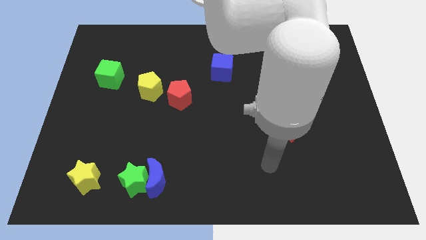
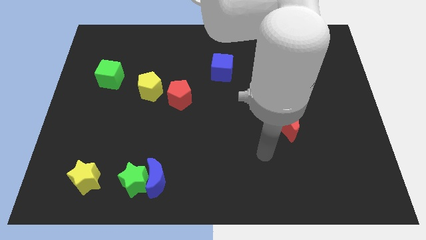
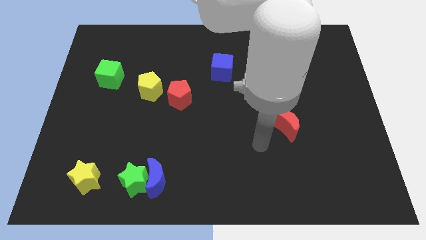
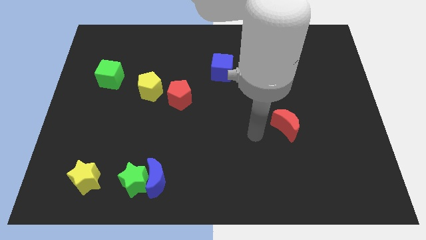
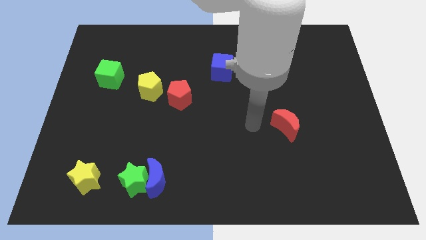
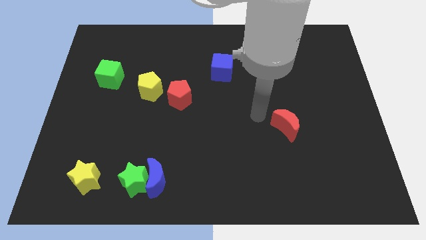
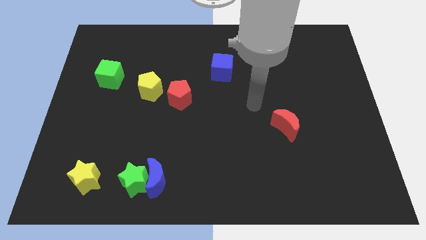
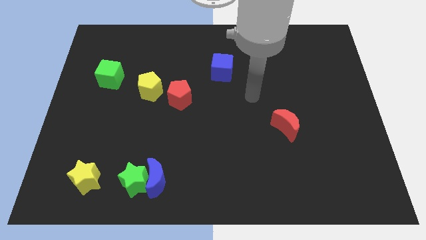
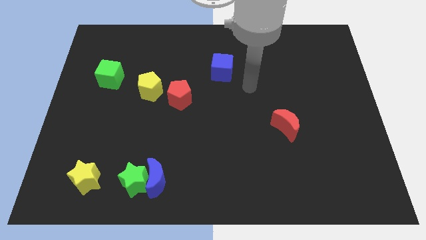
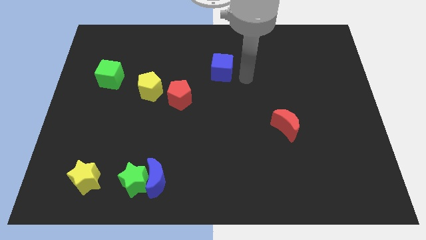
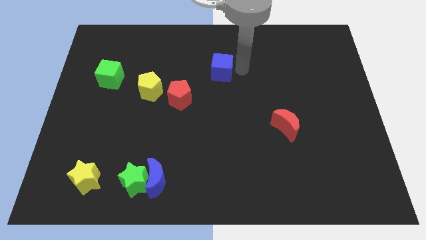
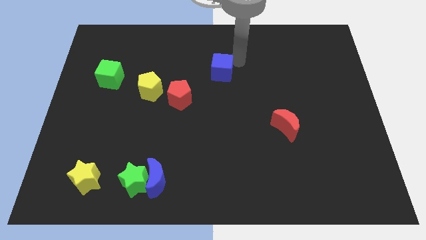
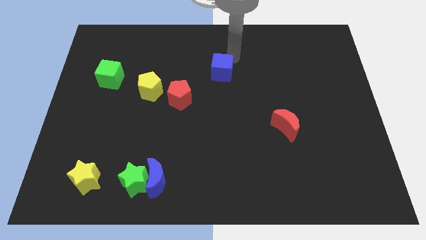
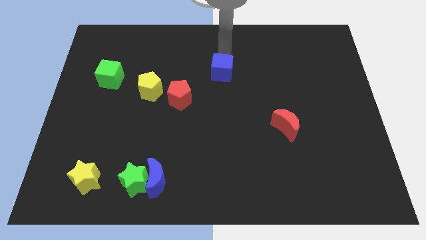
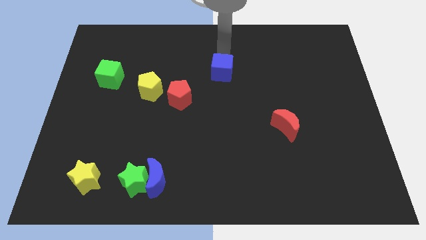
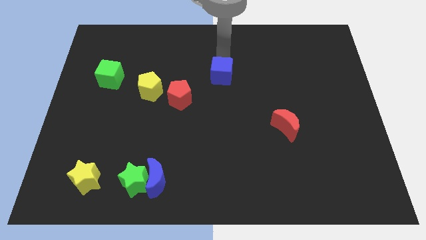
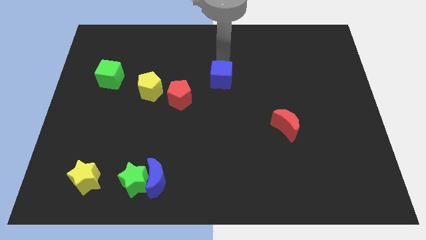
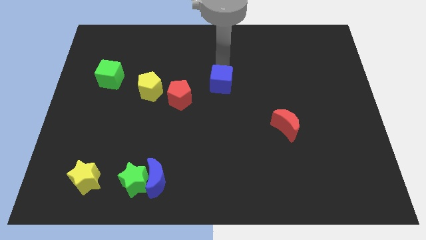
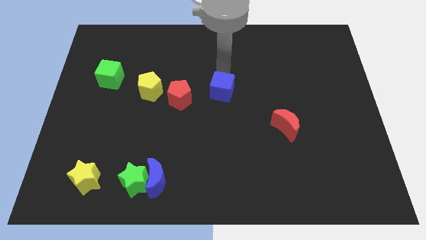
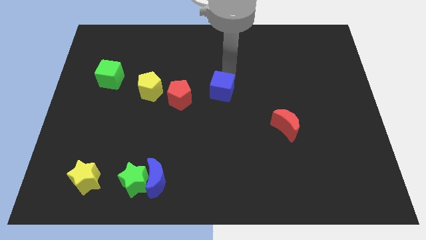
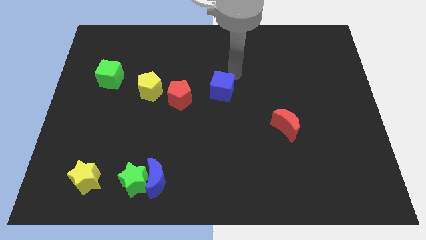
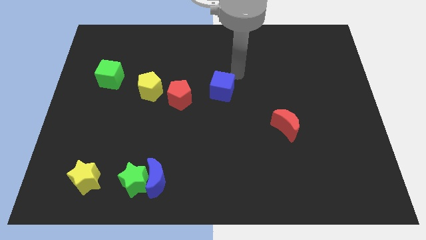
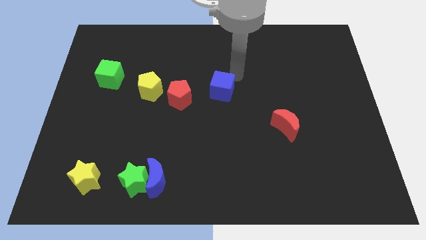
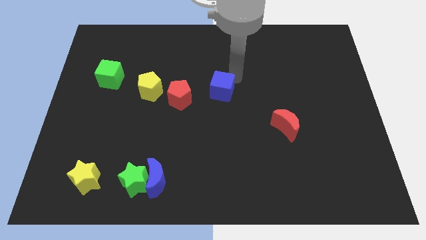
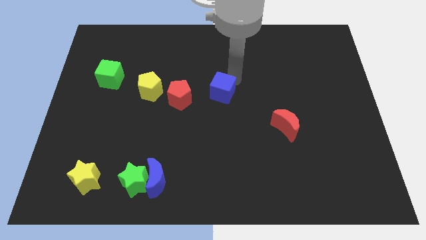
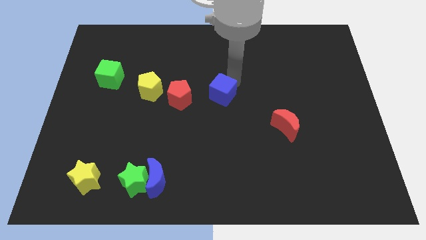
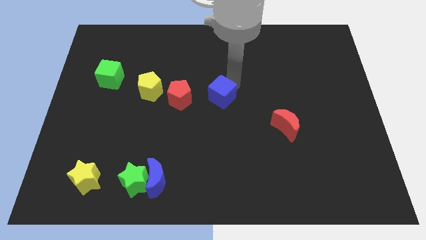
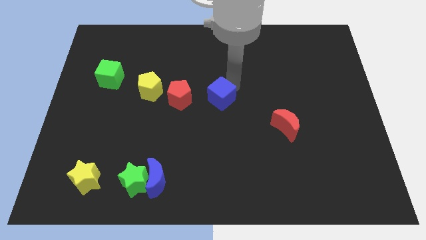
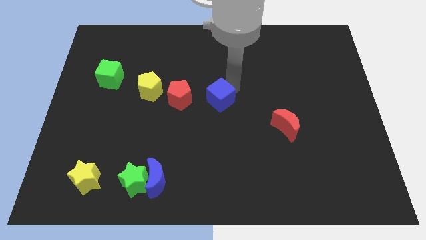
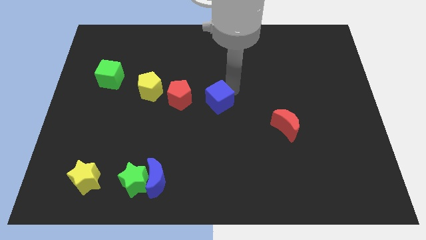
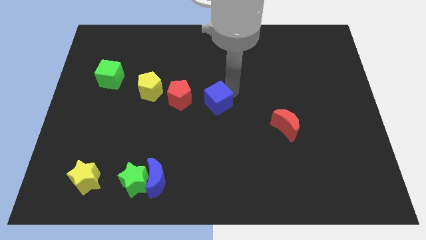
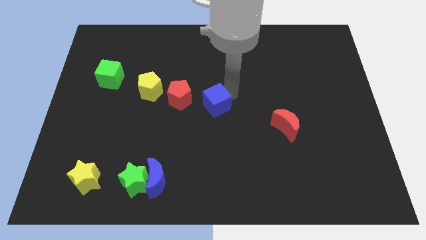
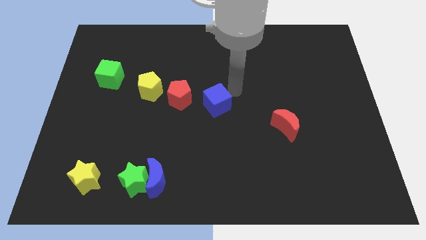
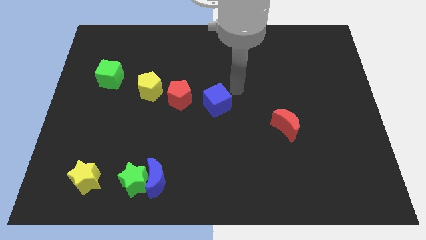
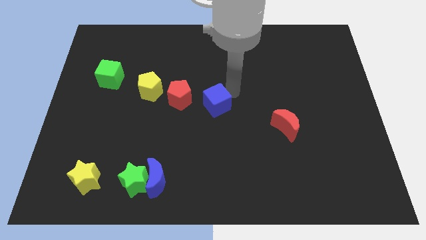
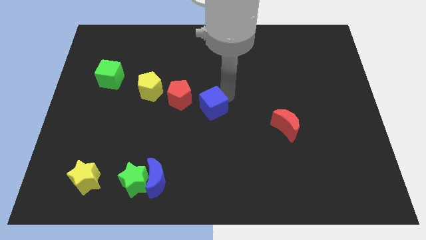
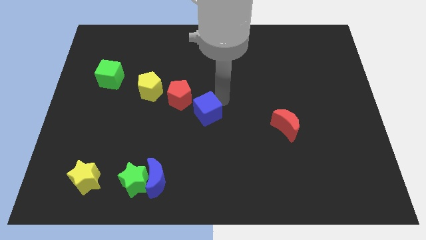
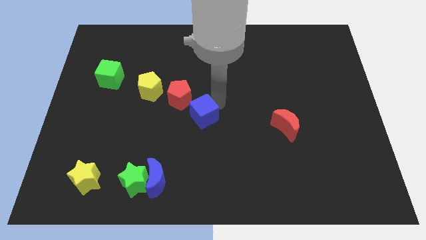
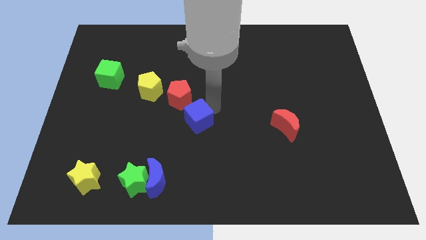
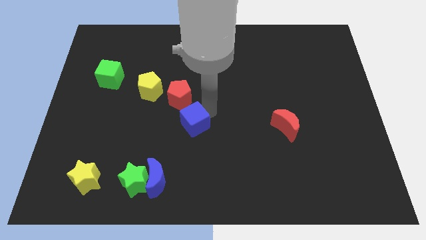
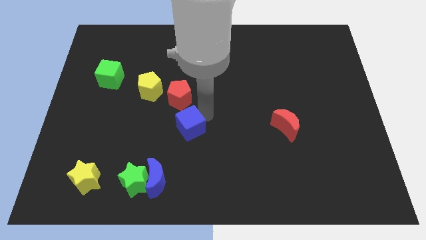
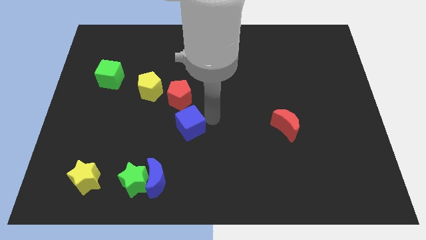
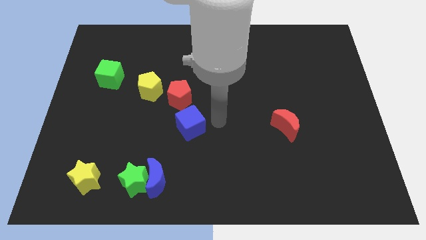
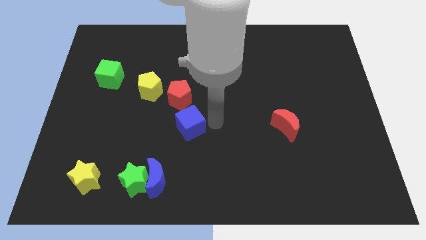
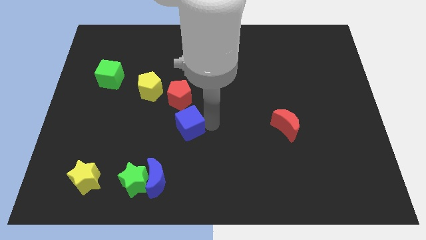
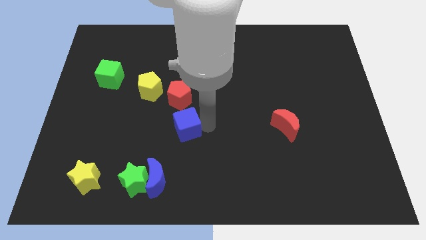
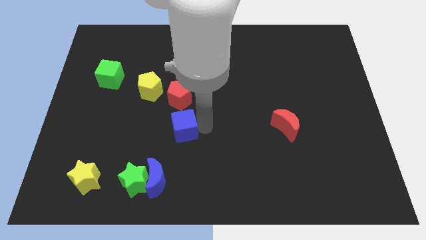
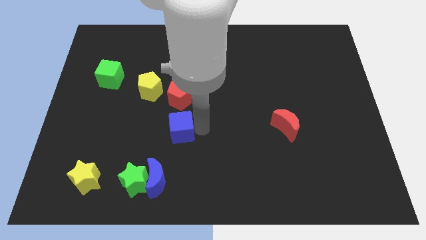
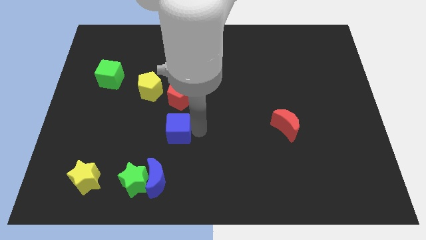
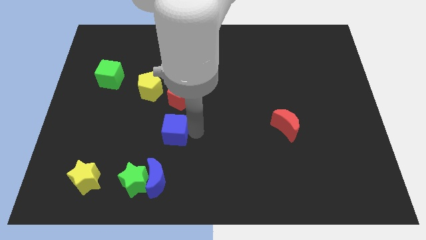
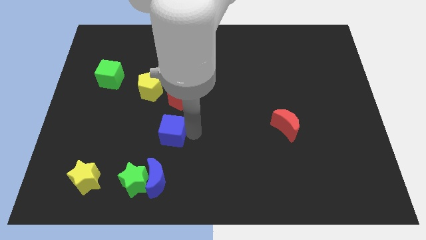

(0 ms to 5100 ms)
move the blue cube diagonally down and to the left

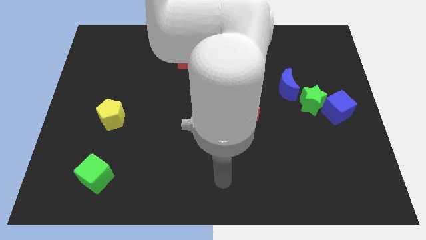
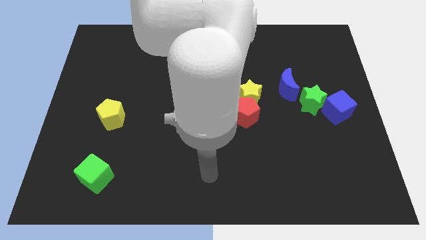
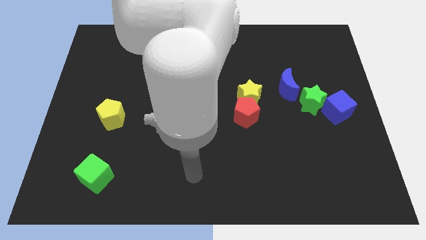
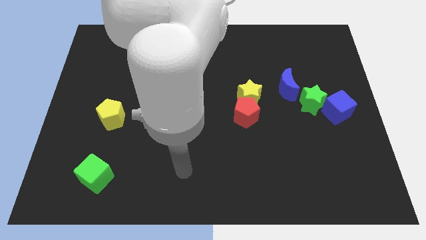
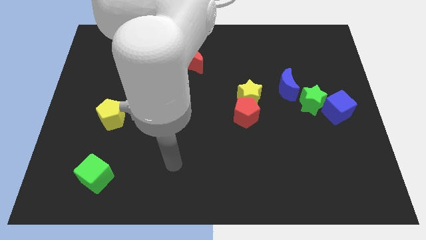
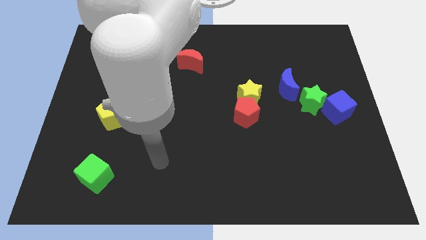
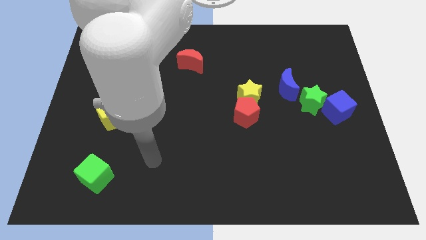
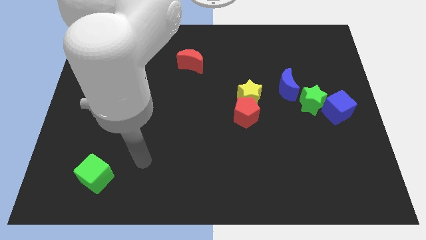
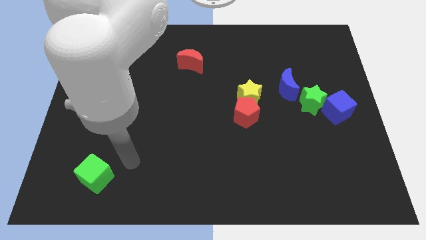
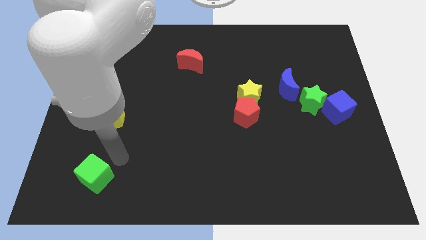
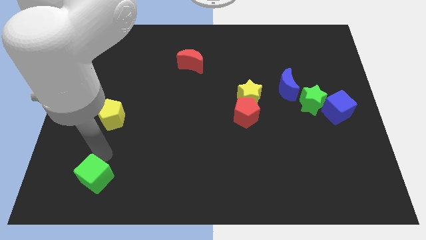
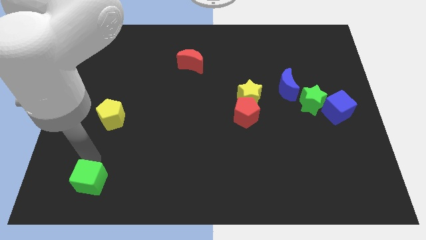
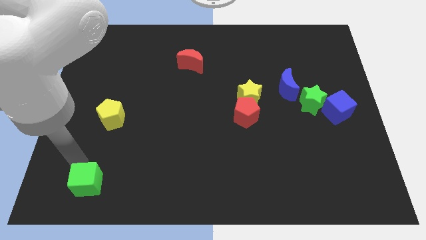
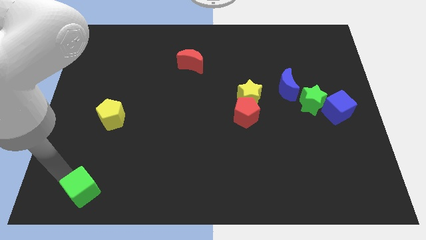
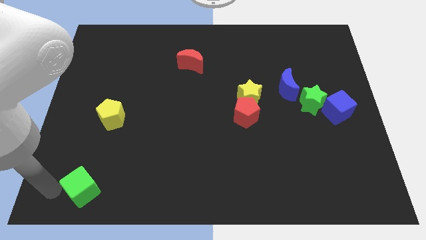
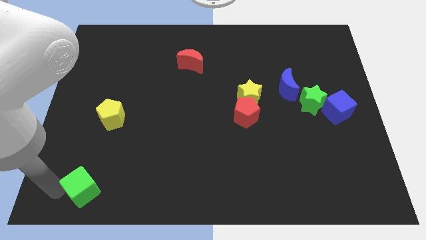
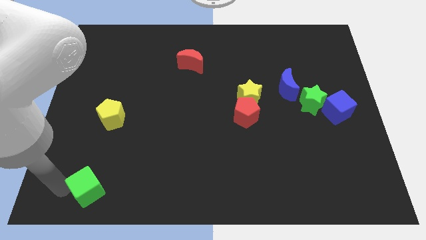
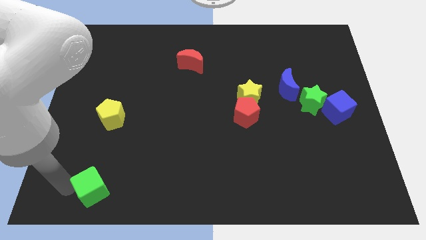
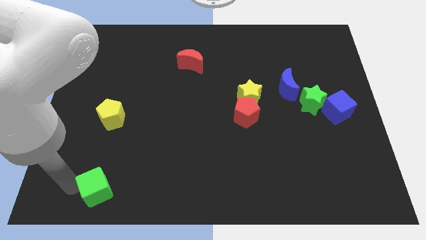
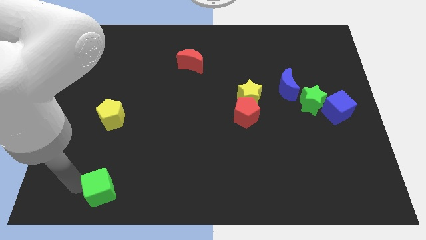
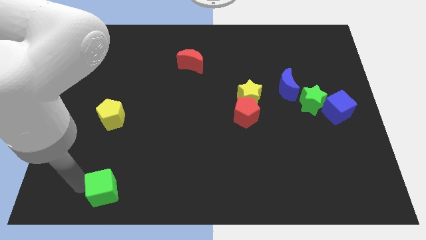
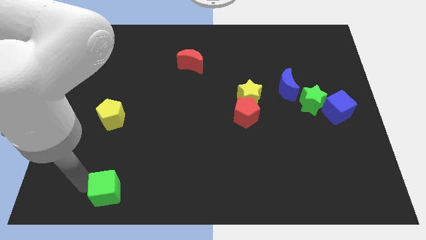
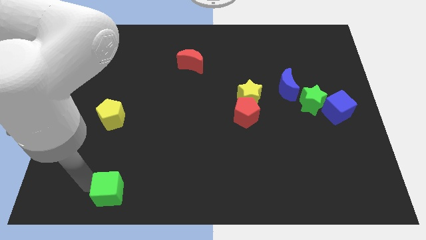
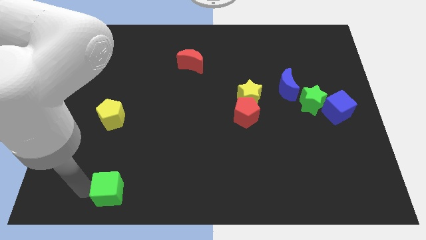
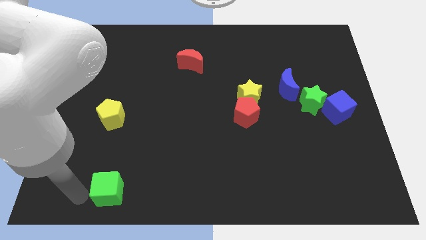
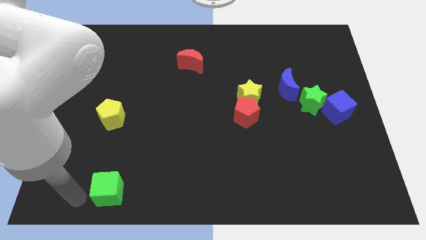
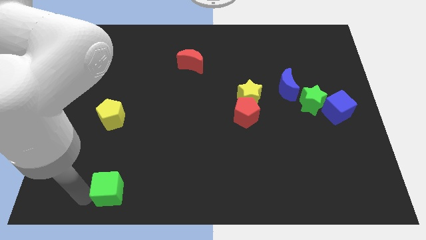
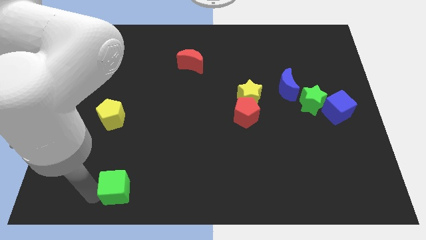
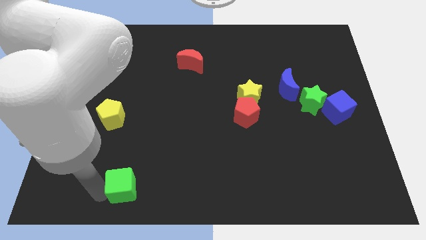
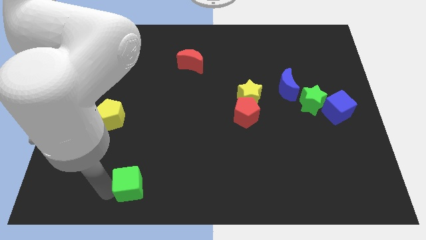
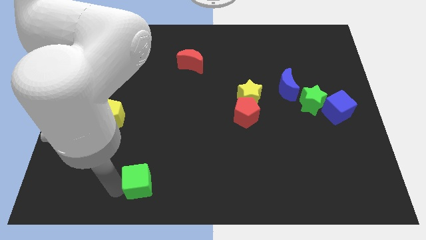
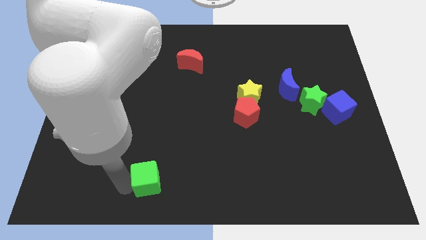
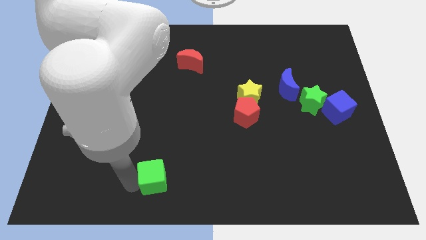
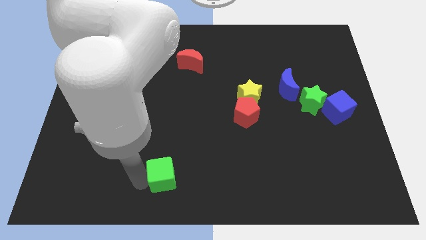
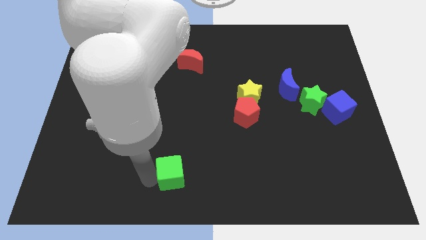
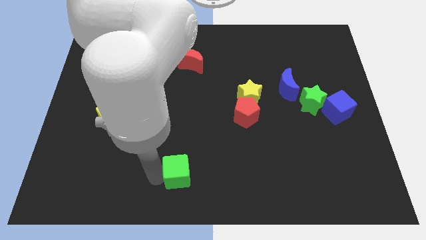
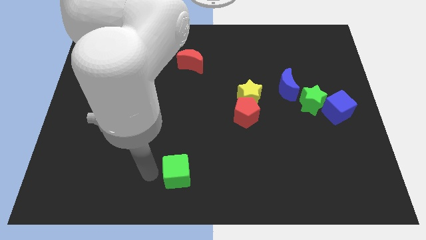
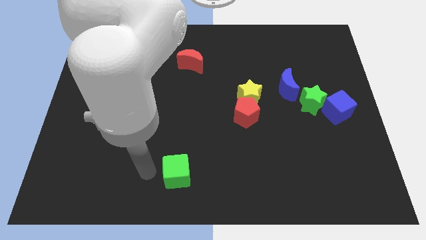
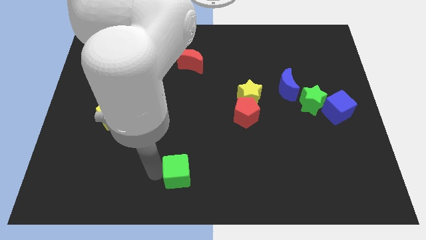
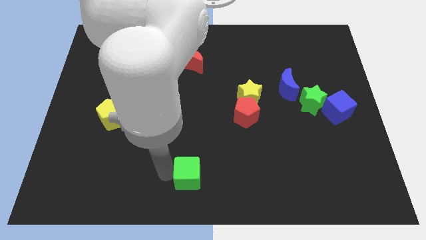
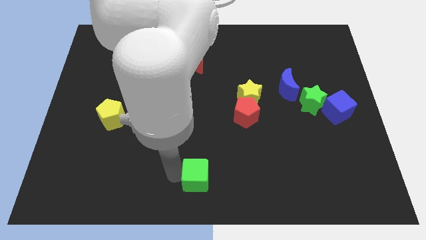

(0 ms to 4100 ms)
push the green cube to the right
